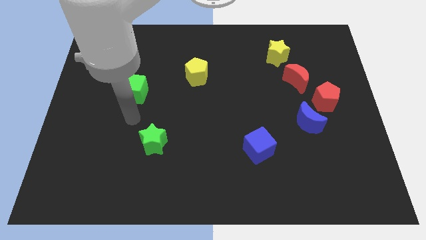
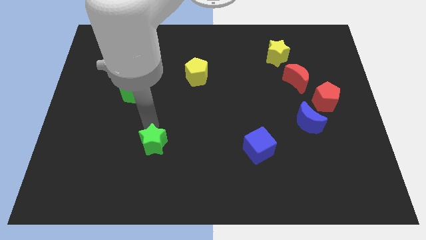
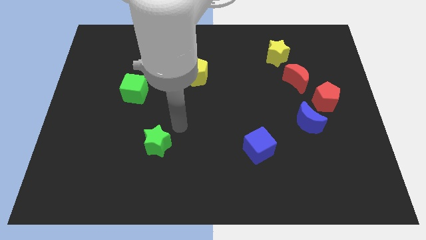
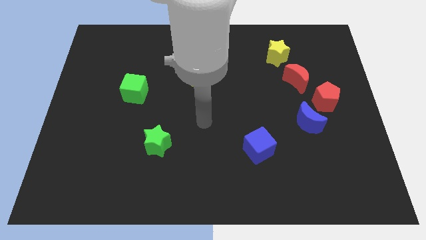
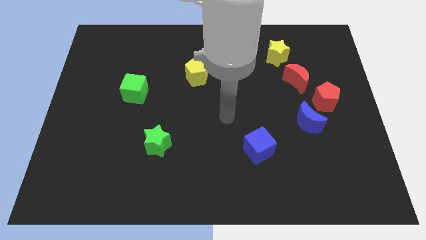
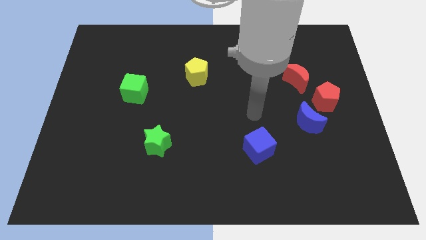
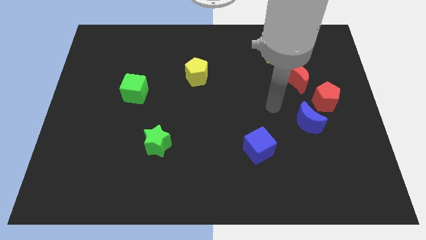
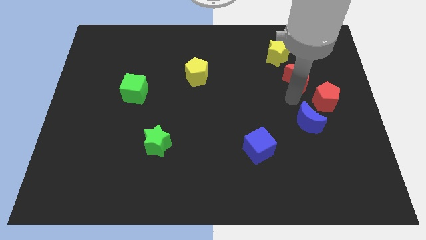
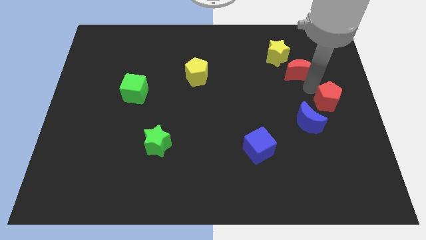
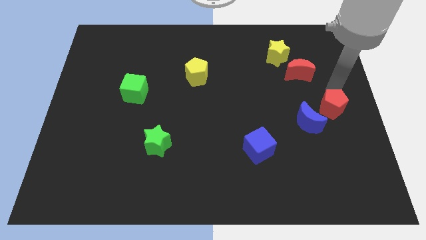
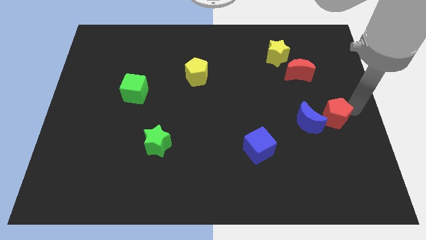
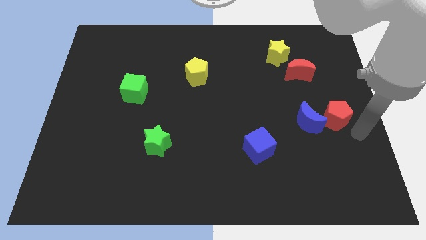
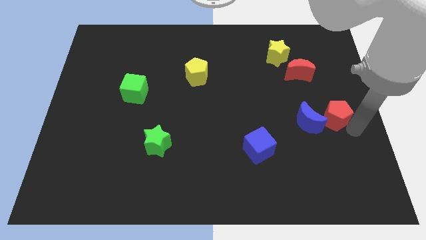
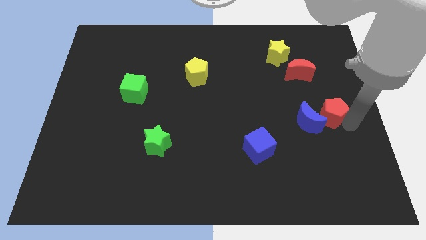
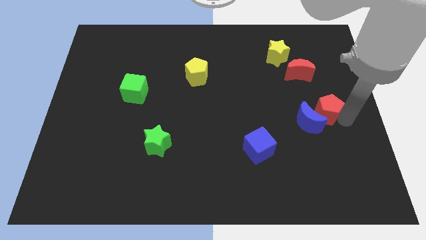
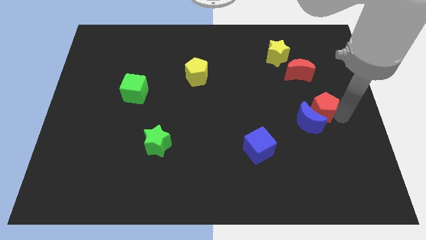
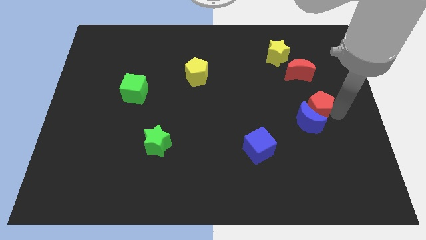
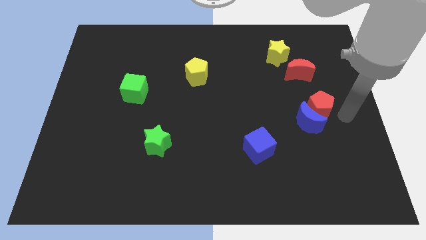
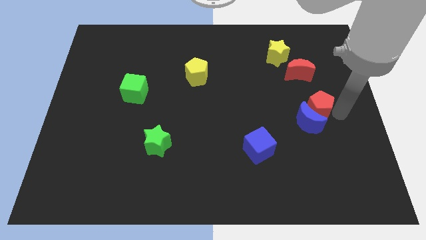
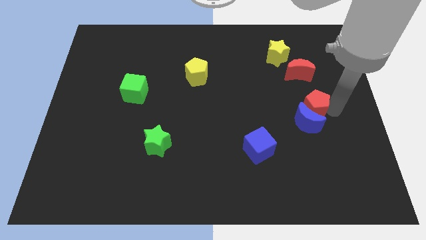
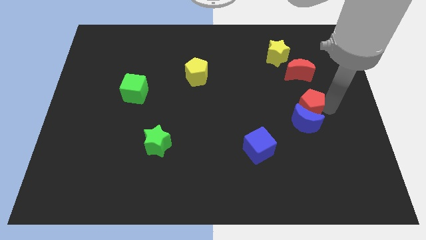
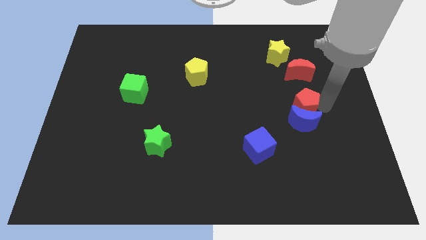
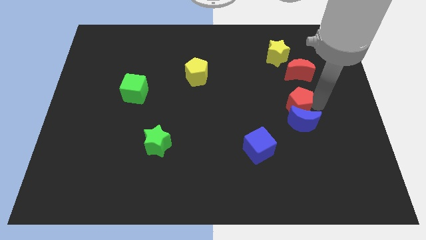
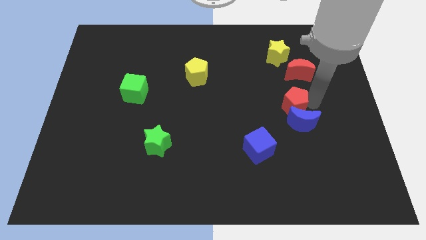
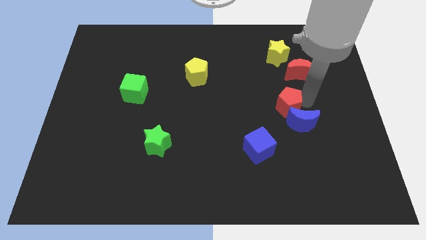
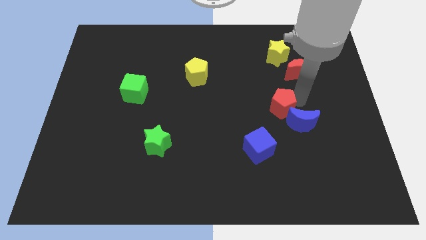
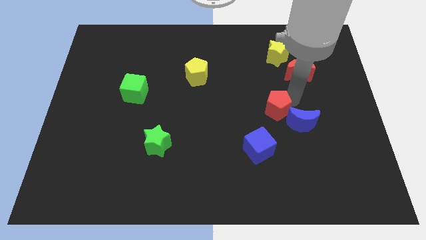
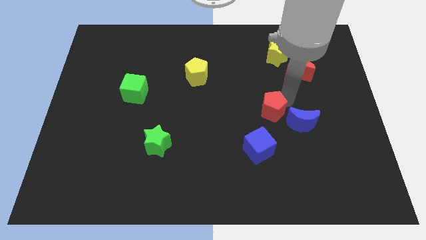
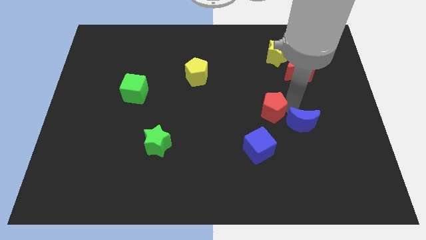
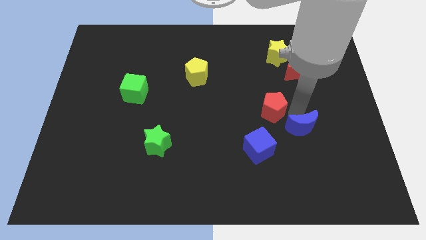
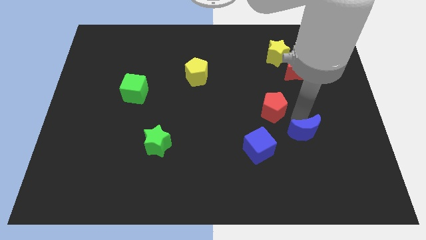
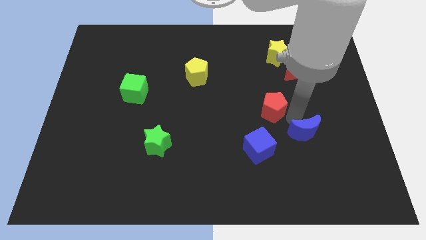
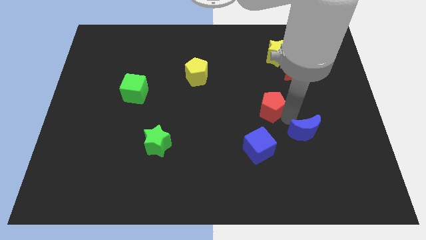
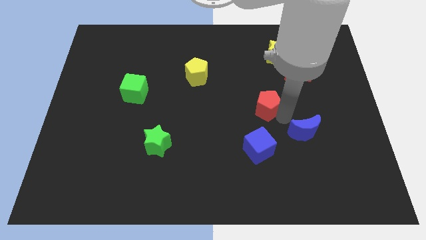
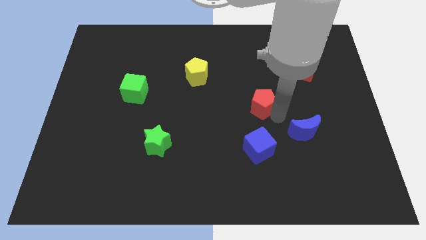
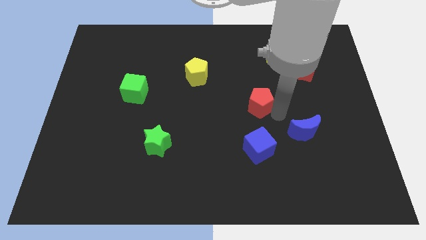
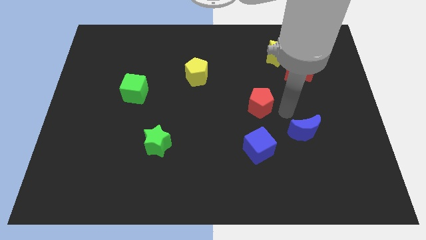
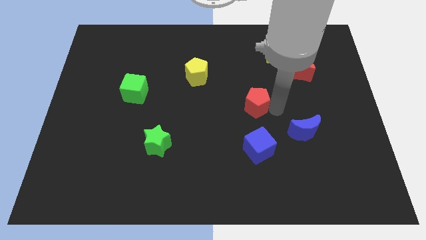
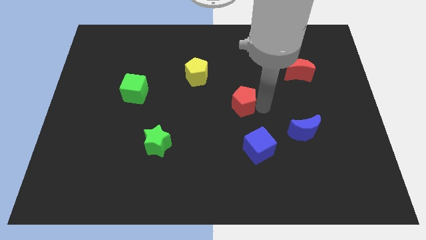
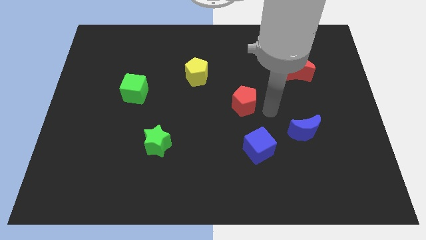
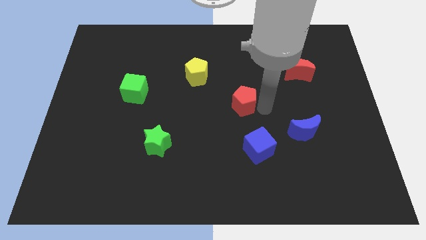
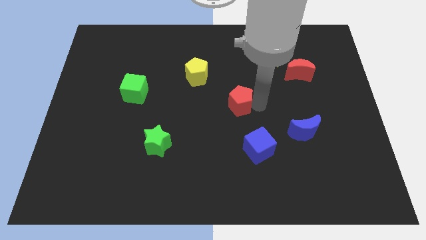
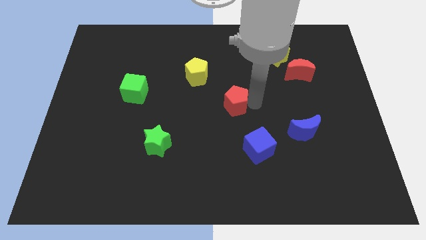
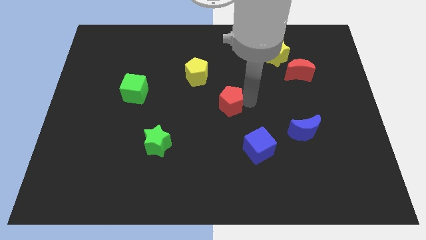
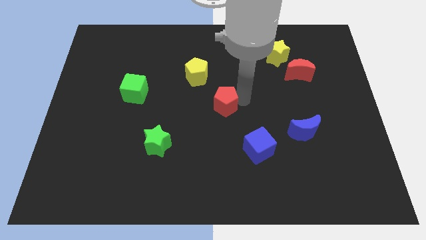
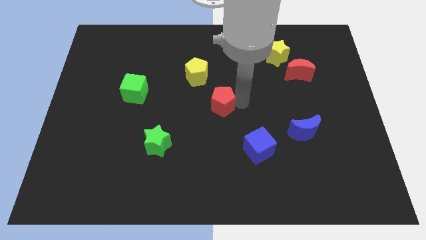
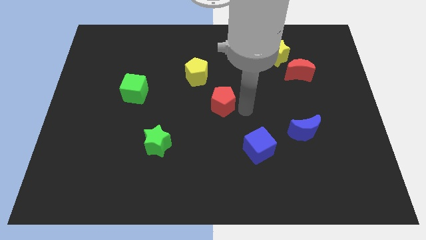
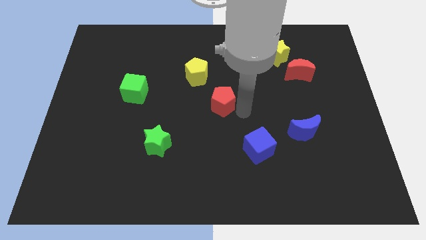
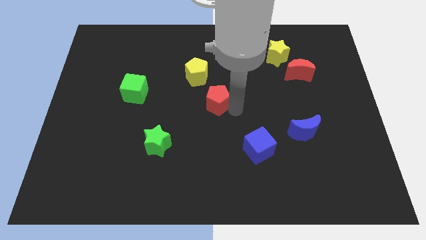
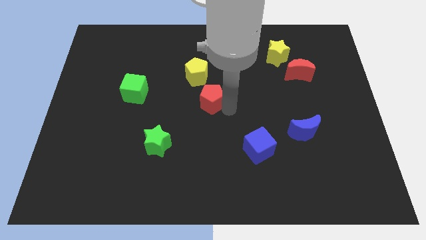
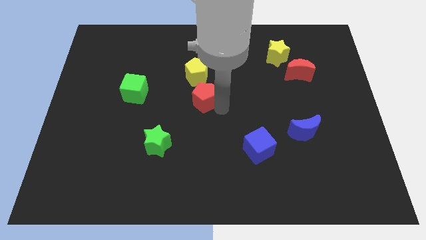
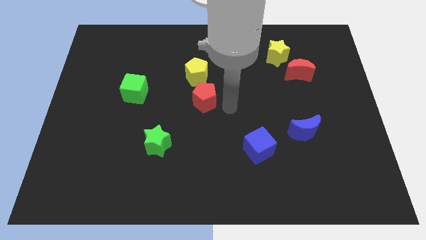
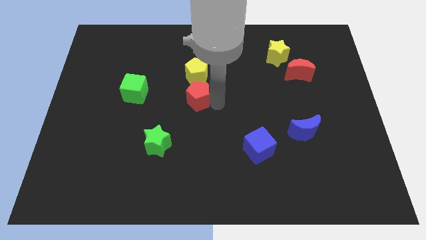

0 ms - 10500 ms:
push the red pentagon right of the green cube

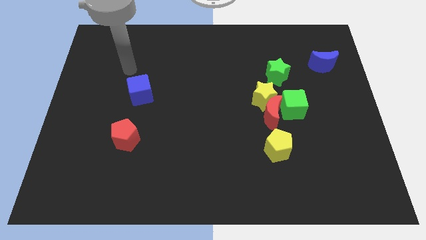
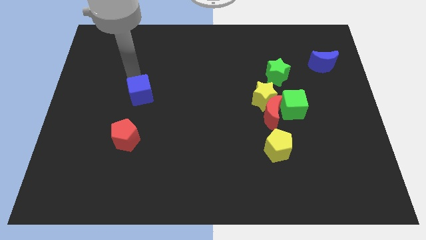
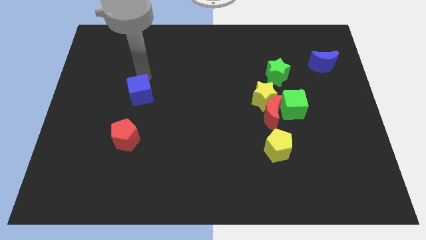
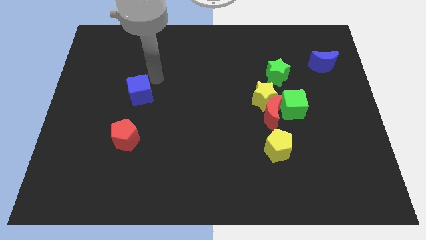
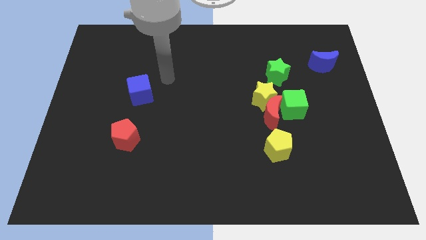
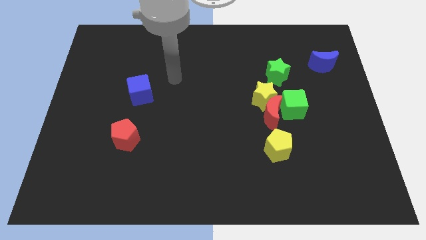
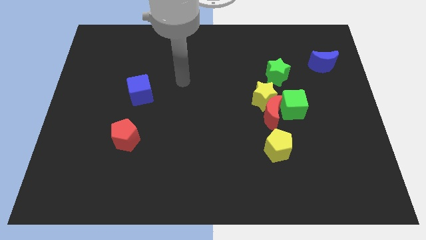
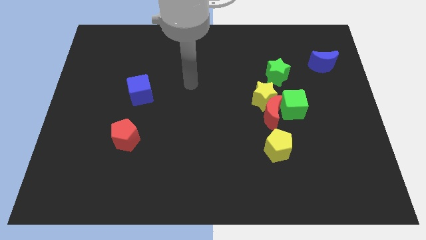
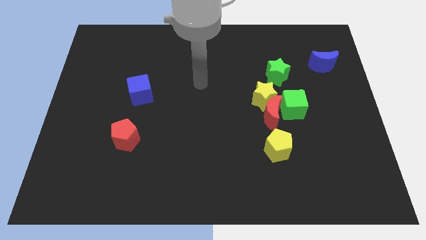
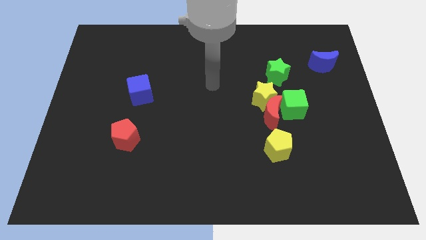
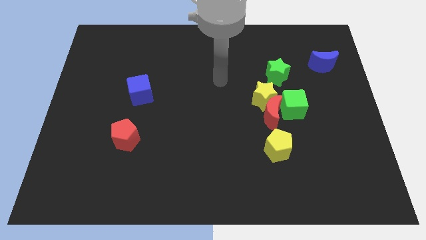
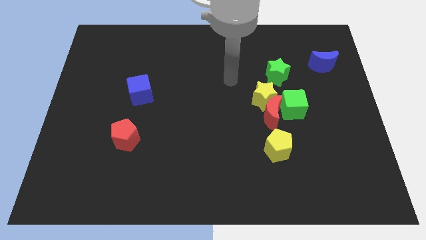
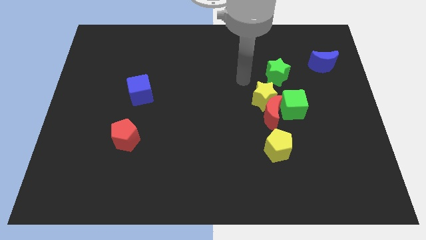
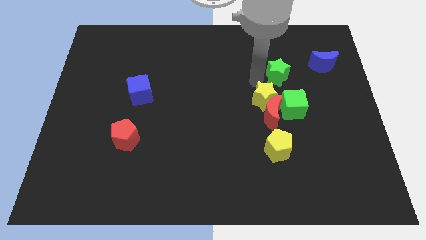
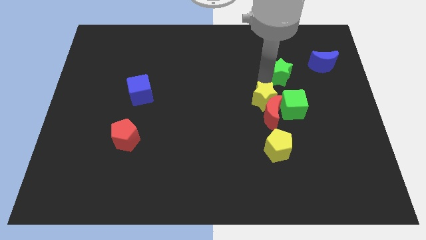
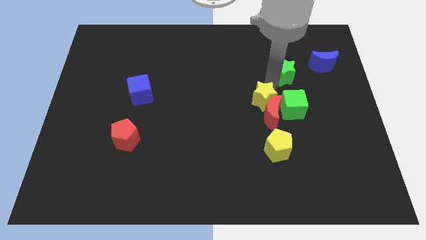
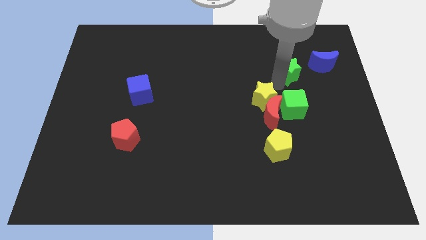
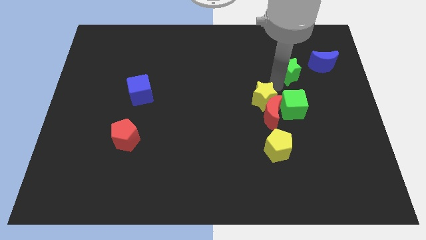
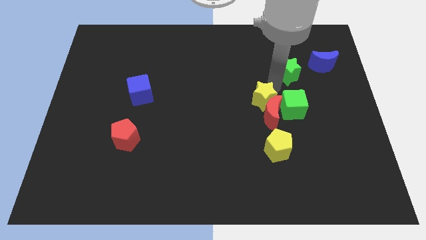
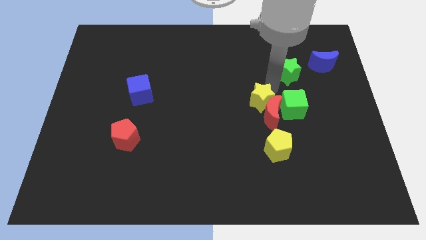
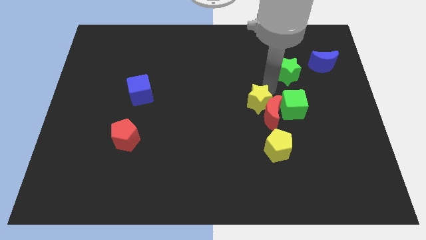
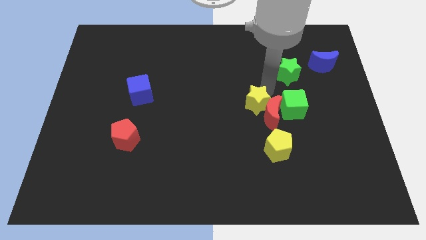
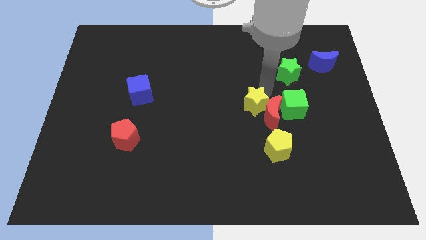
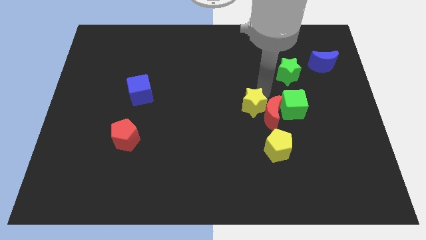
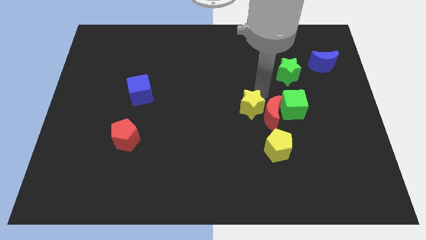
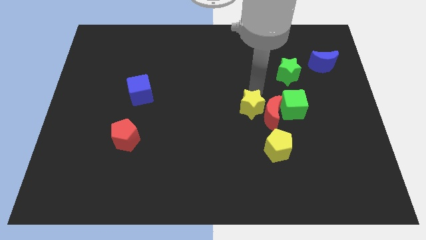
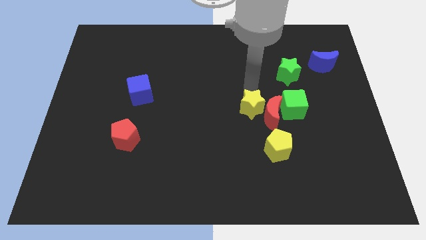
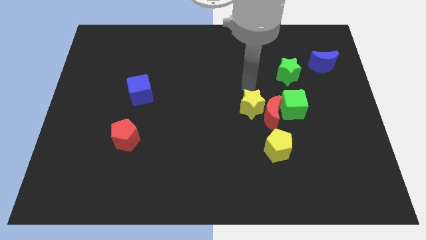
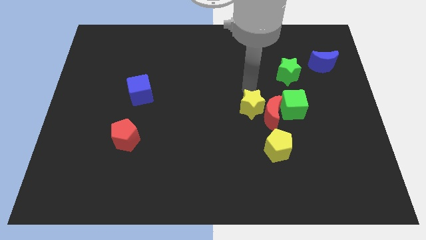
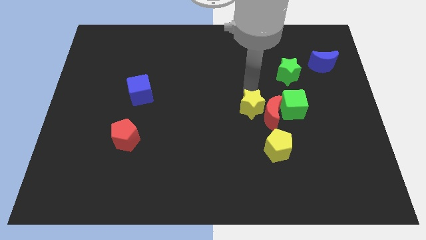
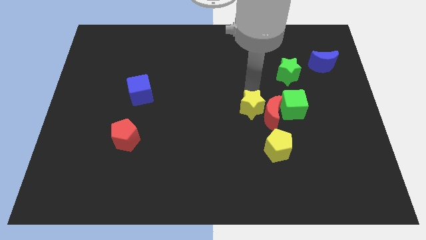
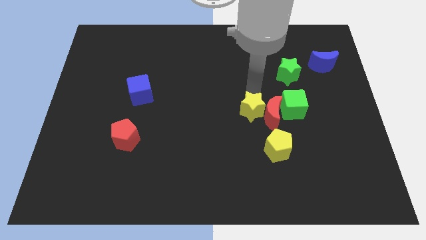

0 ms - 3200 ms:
move the yellow star to the top left of the yellow pentagon
